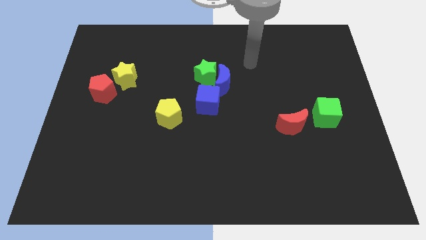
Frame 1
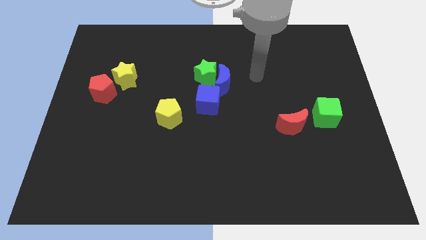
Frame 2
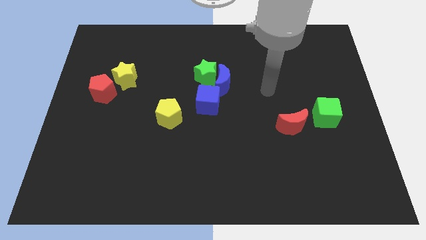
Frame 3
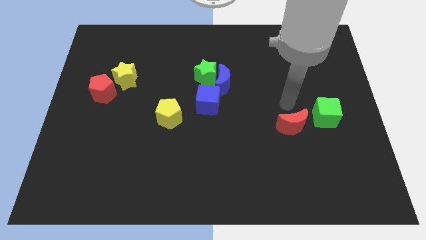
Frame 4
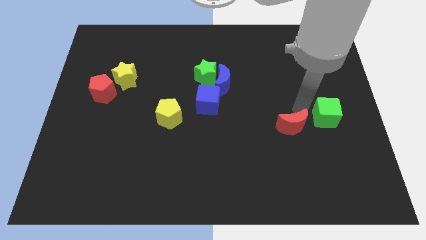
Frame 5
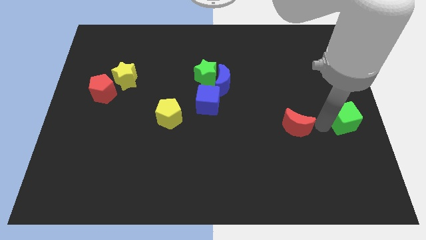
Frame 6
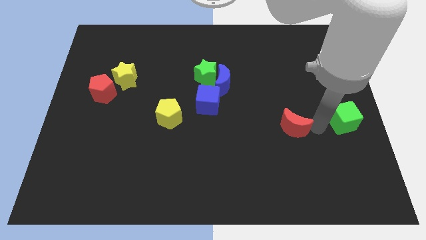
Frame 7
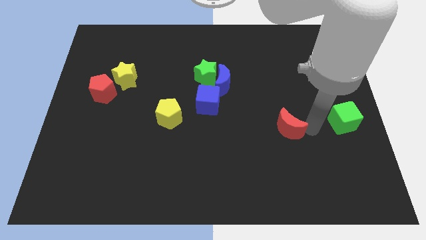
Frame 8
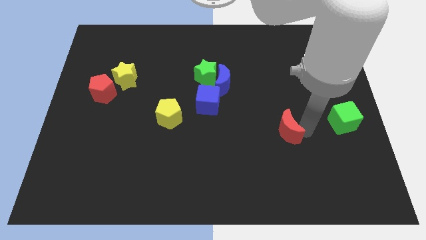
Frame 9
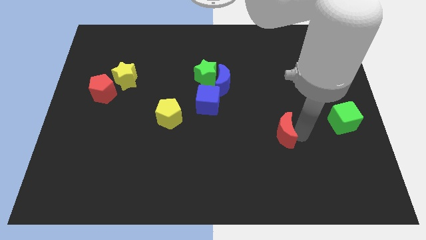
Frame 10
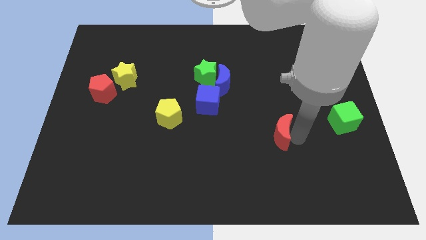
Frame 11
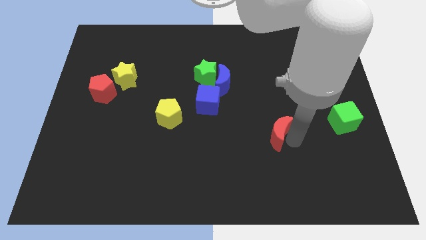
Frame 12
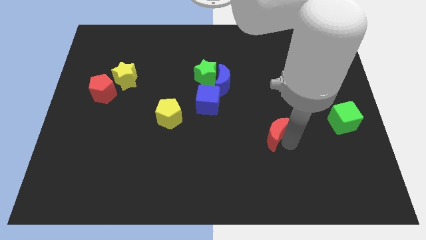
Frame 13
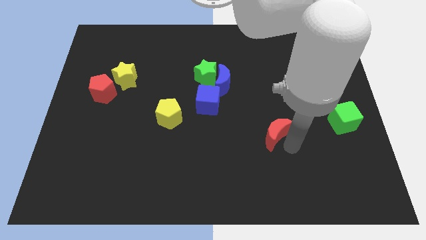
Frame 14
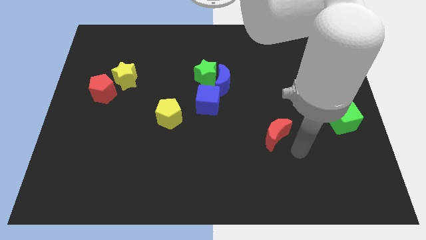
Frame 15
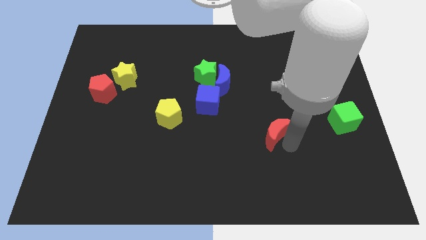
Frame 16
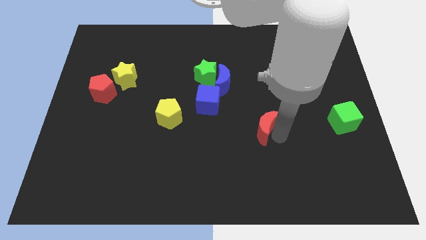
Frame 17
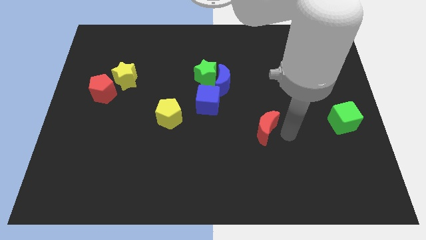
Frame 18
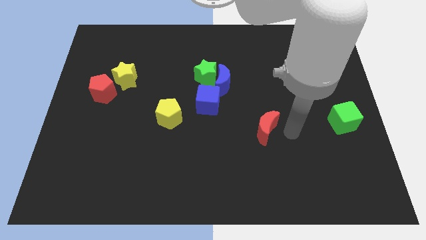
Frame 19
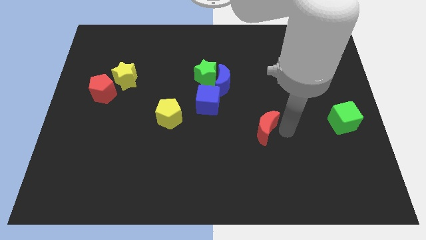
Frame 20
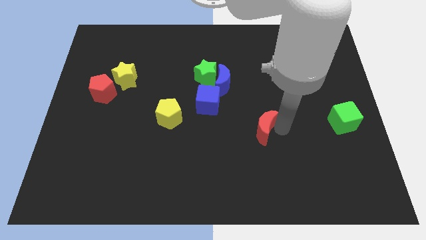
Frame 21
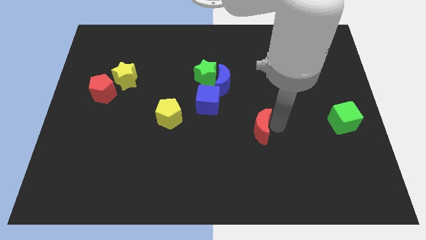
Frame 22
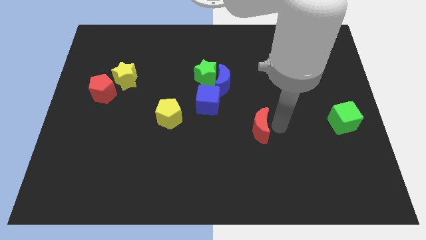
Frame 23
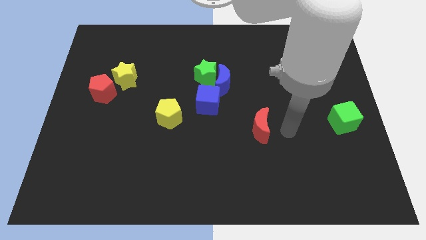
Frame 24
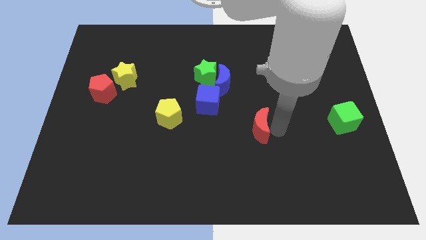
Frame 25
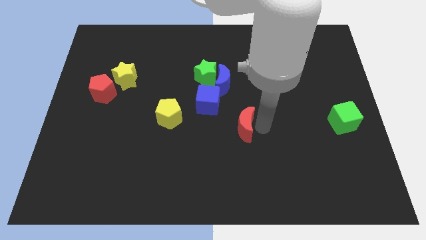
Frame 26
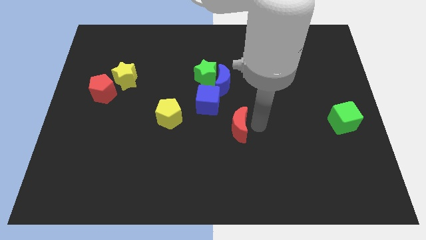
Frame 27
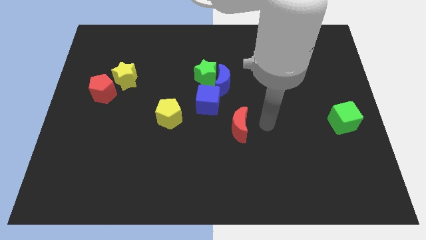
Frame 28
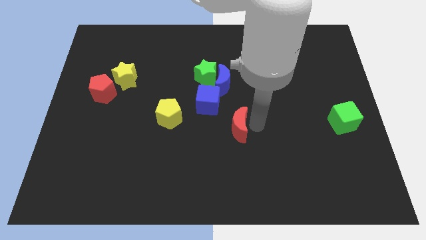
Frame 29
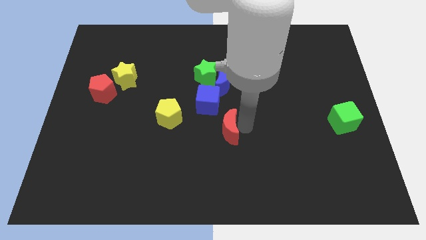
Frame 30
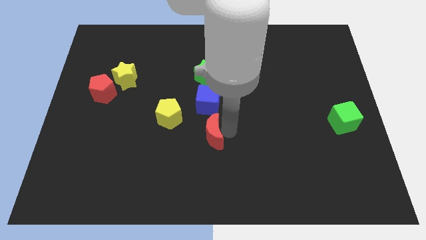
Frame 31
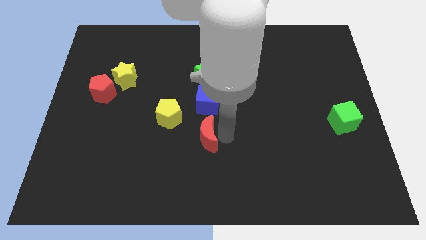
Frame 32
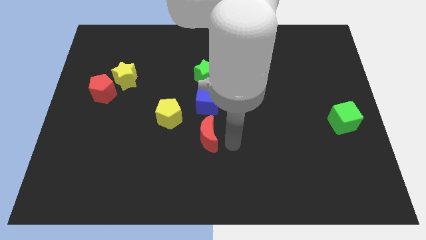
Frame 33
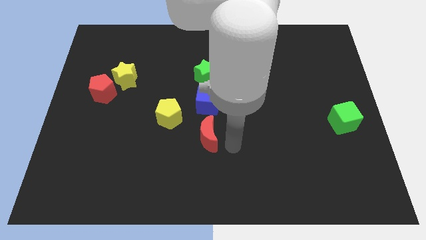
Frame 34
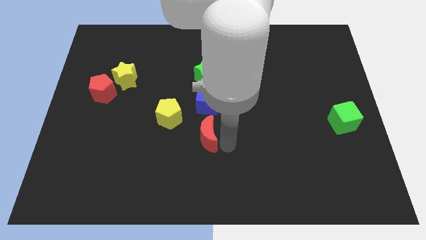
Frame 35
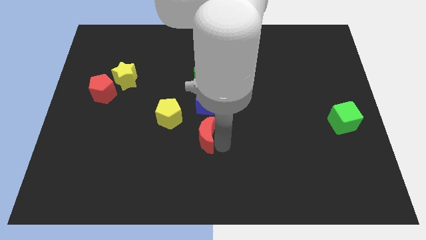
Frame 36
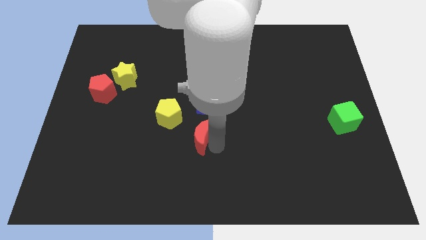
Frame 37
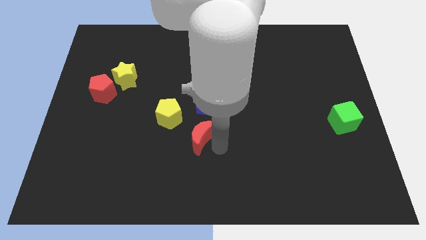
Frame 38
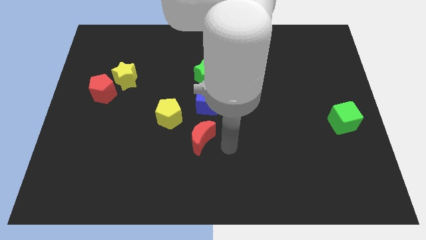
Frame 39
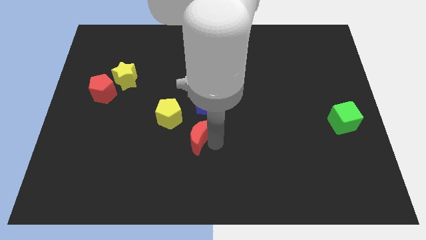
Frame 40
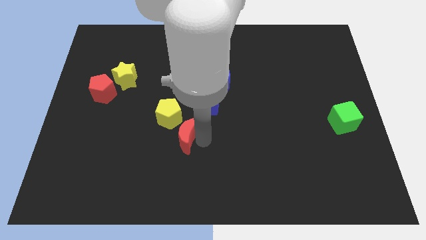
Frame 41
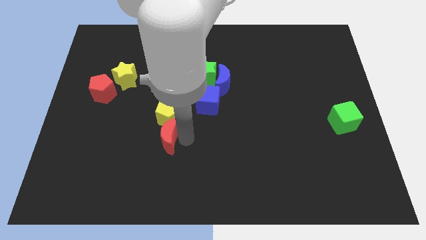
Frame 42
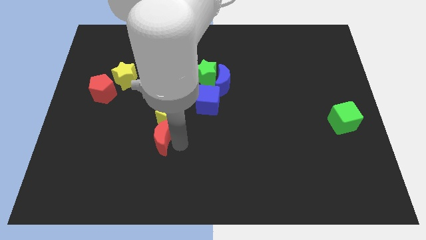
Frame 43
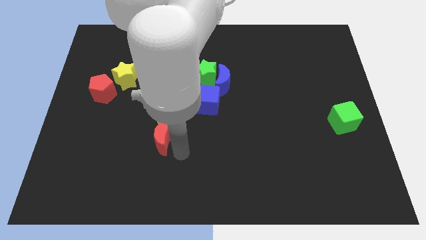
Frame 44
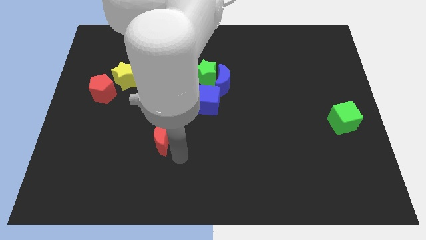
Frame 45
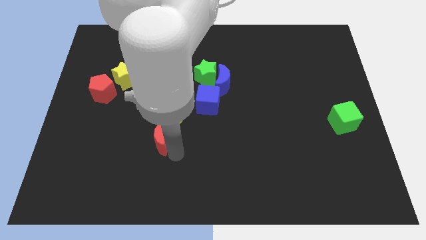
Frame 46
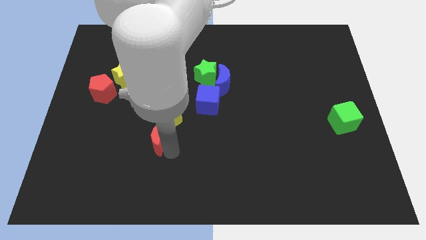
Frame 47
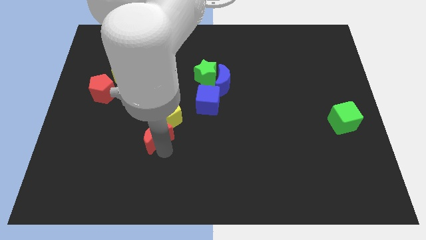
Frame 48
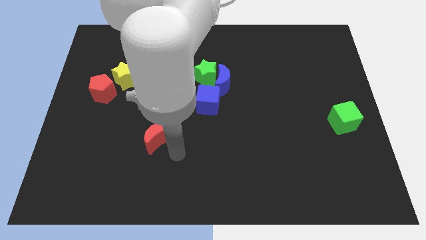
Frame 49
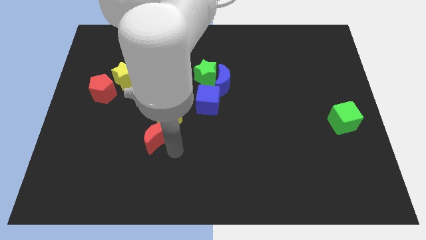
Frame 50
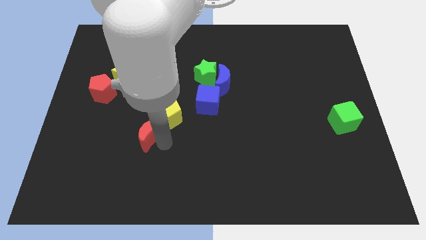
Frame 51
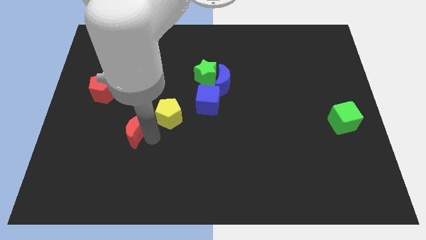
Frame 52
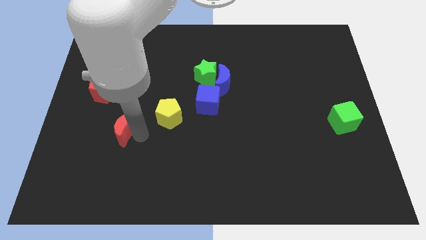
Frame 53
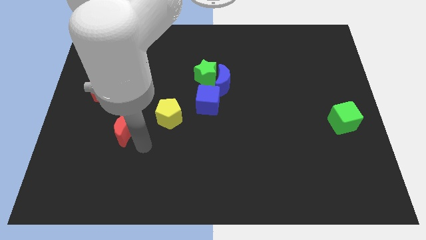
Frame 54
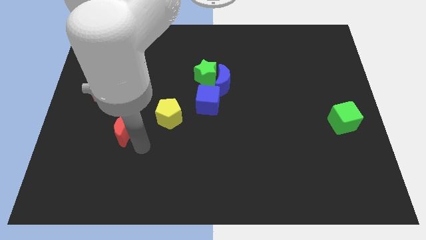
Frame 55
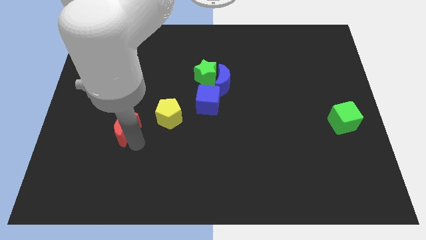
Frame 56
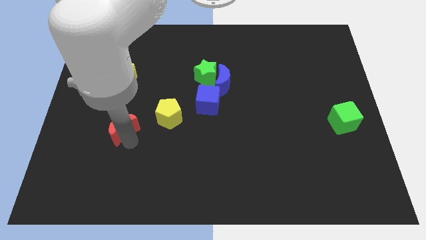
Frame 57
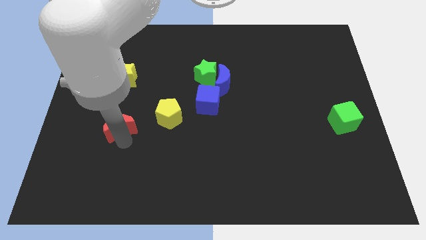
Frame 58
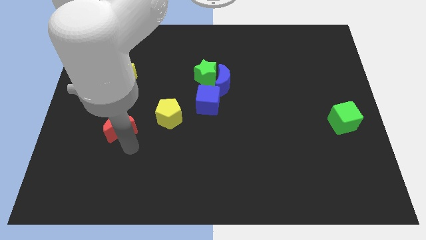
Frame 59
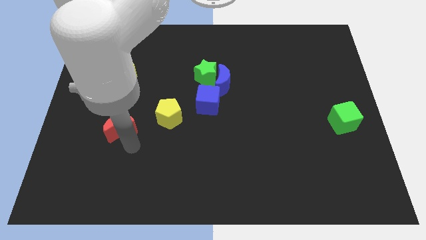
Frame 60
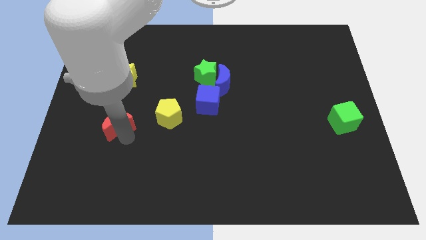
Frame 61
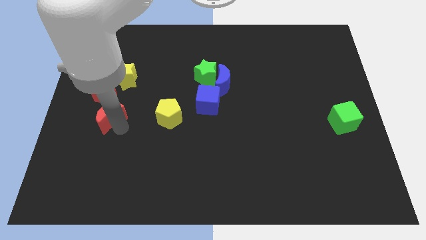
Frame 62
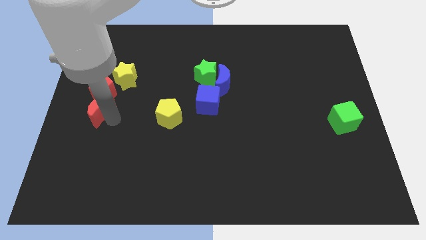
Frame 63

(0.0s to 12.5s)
push the red moon to the left side
